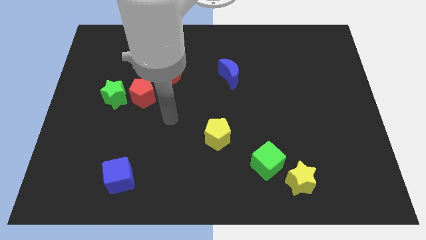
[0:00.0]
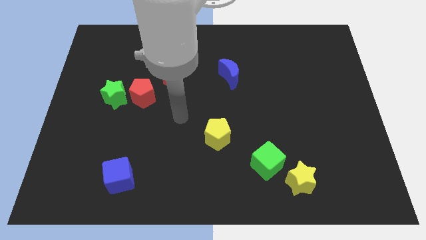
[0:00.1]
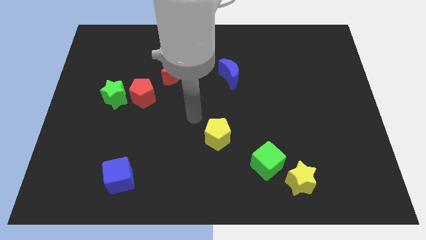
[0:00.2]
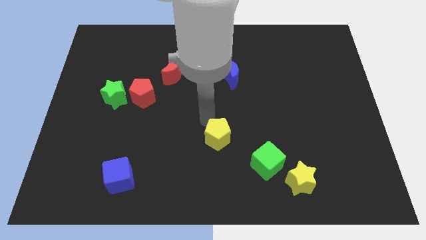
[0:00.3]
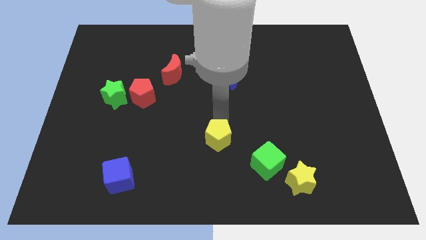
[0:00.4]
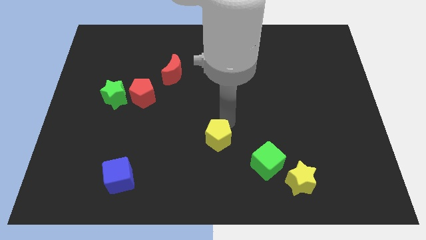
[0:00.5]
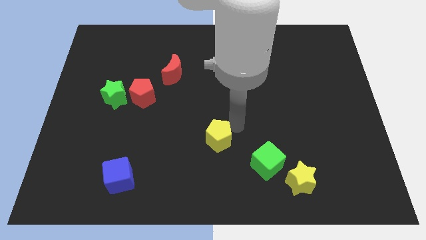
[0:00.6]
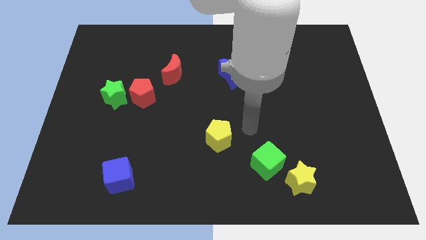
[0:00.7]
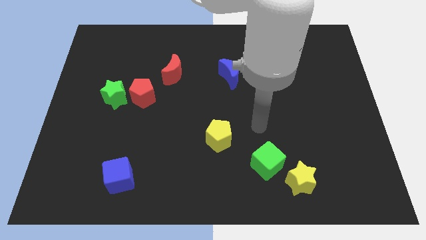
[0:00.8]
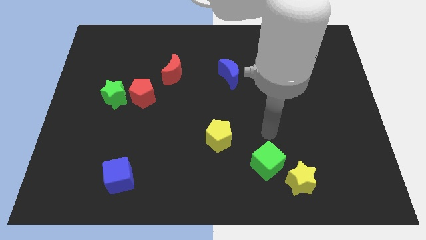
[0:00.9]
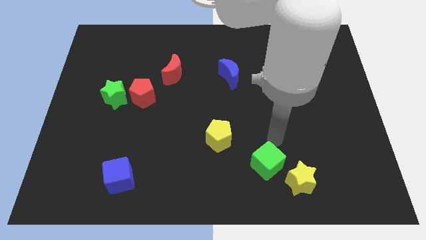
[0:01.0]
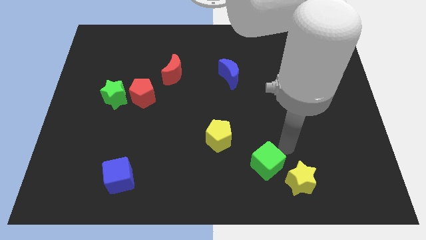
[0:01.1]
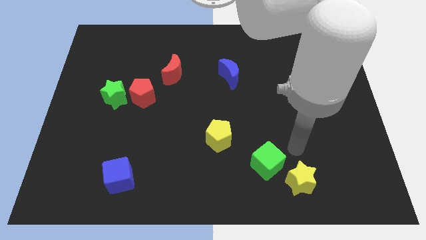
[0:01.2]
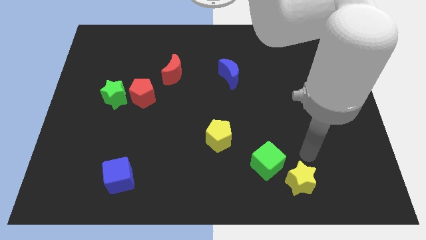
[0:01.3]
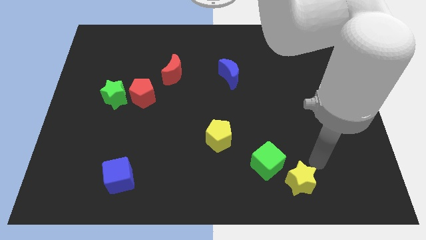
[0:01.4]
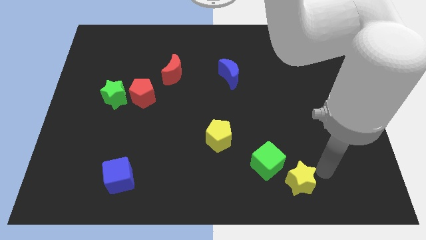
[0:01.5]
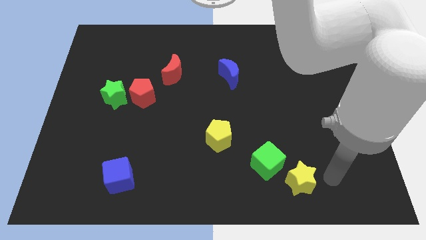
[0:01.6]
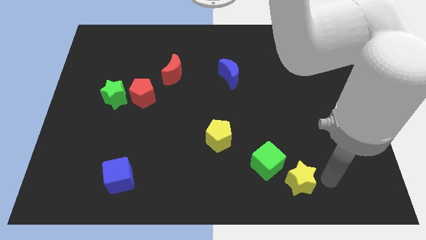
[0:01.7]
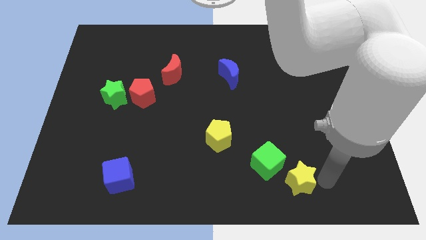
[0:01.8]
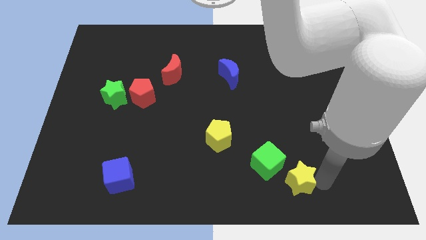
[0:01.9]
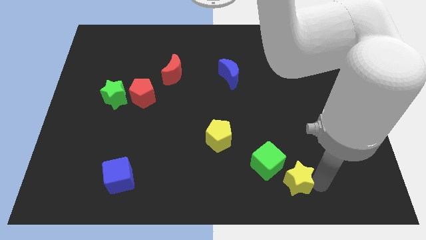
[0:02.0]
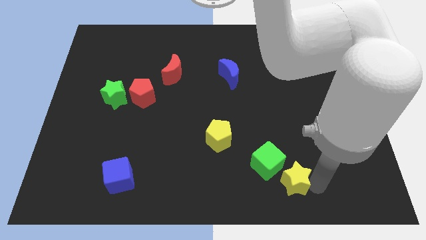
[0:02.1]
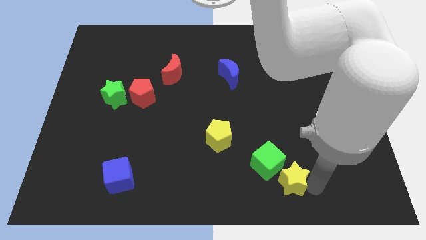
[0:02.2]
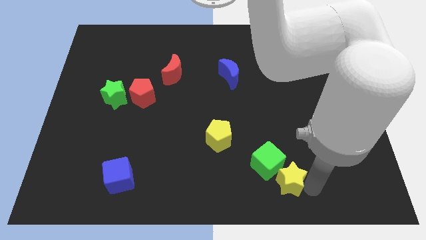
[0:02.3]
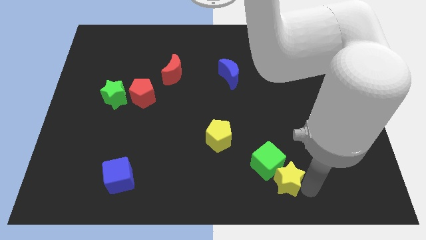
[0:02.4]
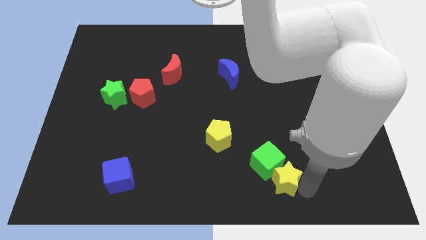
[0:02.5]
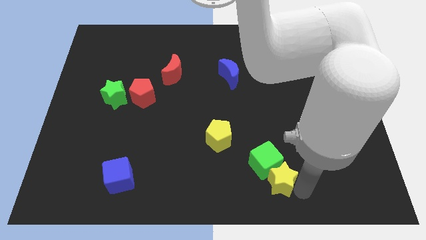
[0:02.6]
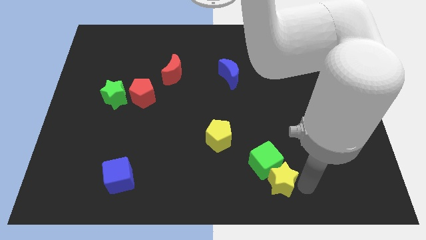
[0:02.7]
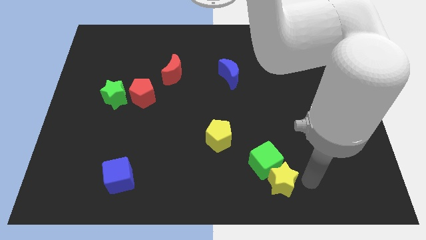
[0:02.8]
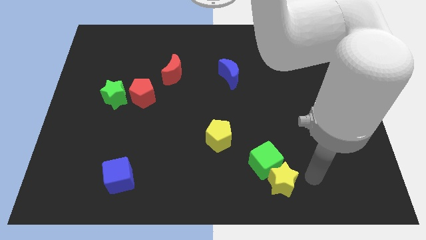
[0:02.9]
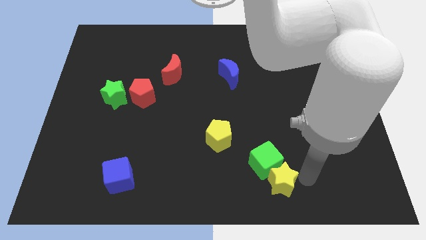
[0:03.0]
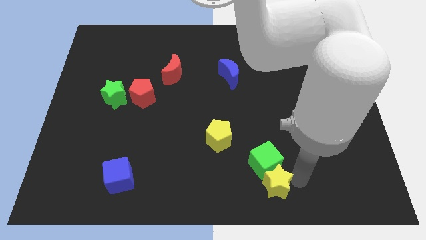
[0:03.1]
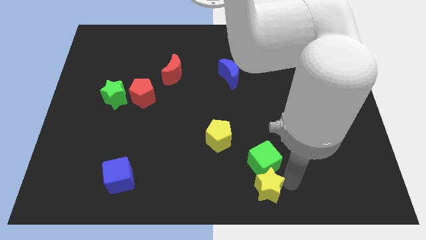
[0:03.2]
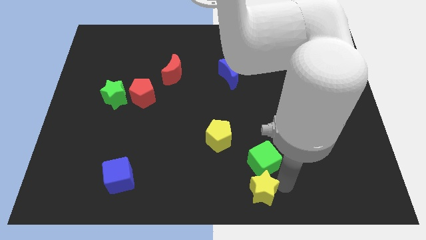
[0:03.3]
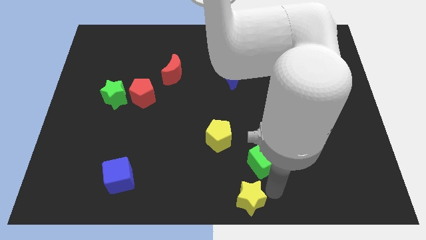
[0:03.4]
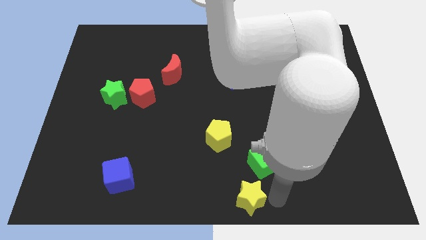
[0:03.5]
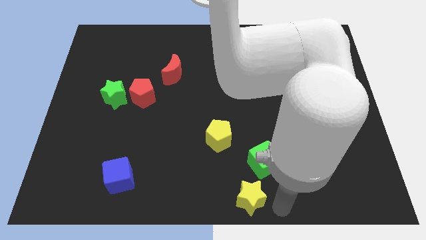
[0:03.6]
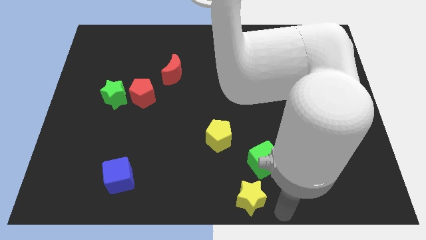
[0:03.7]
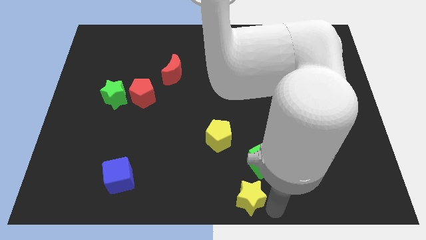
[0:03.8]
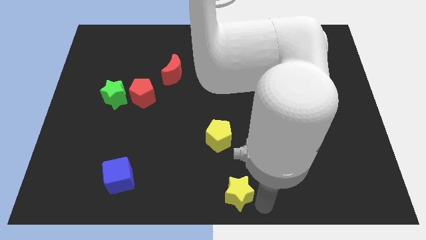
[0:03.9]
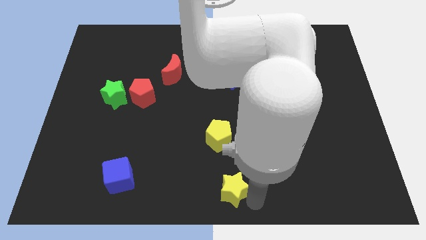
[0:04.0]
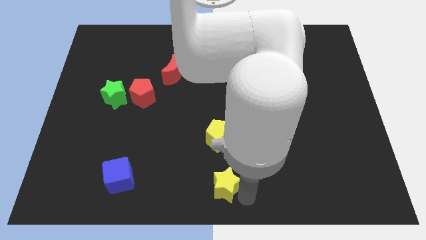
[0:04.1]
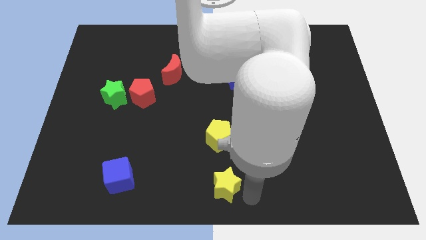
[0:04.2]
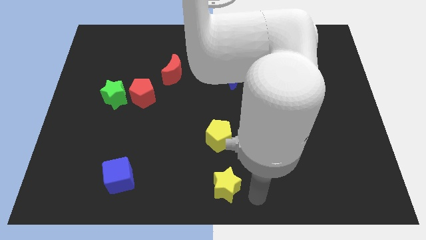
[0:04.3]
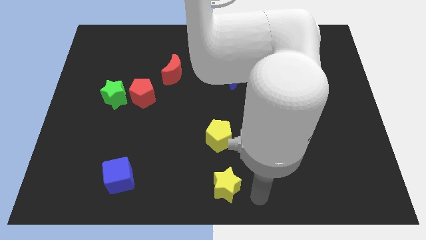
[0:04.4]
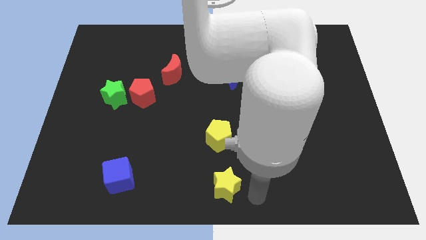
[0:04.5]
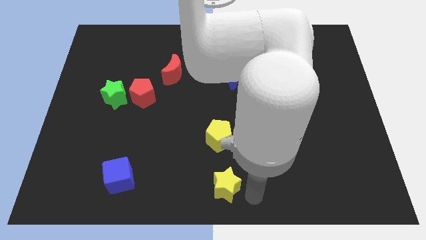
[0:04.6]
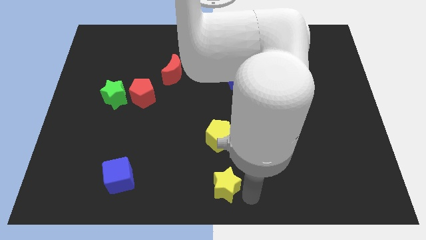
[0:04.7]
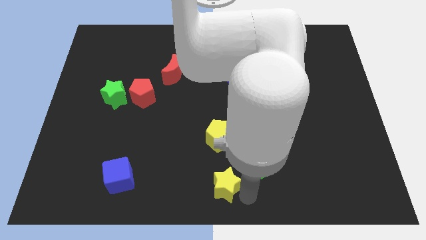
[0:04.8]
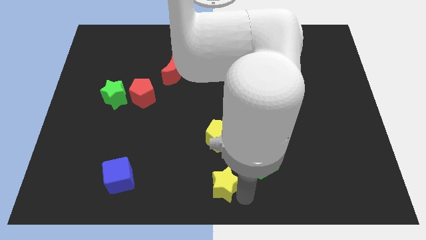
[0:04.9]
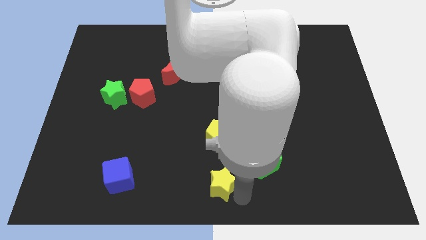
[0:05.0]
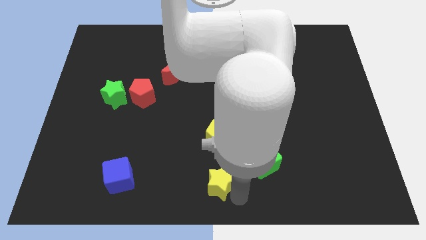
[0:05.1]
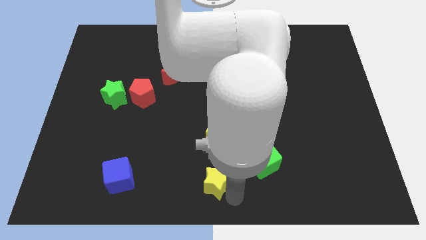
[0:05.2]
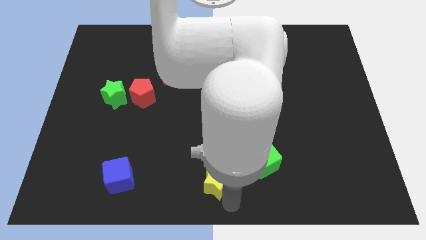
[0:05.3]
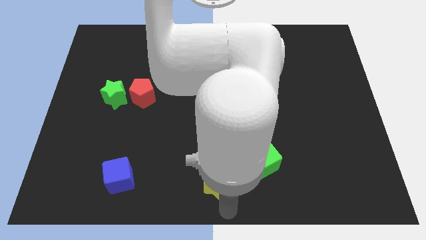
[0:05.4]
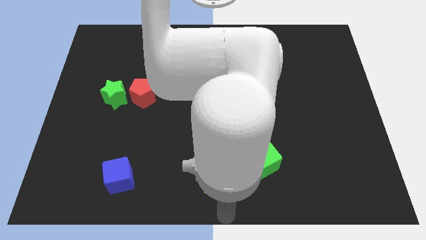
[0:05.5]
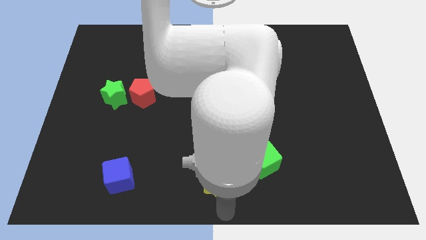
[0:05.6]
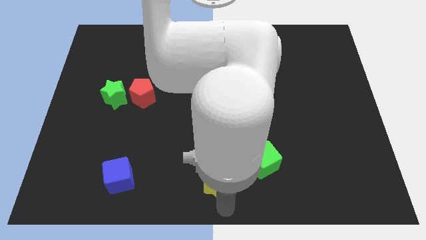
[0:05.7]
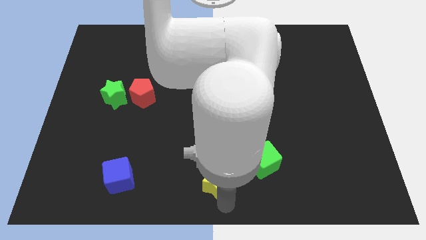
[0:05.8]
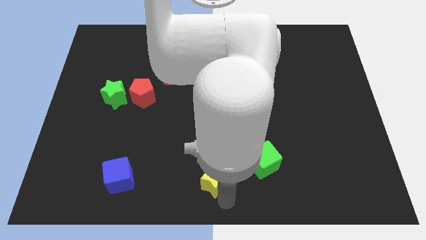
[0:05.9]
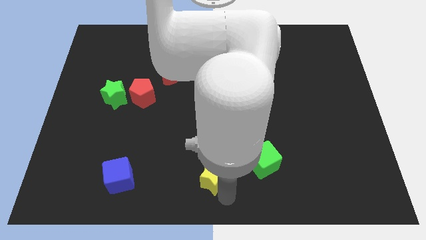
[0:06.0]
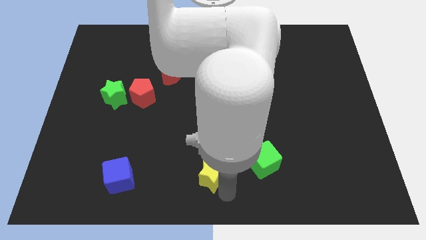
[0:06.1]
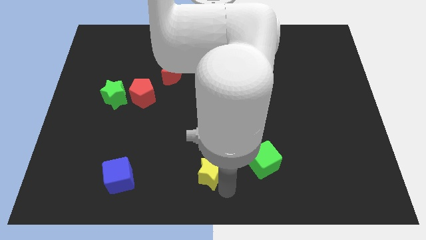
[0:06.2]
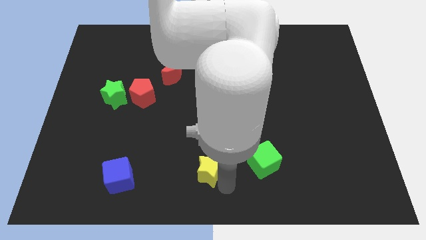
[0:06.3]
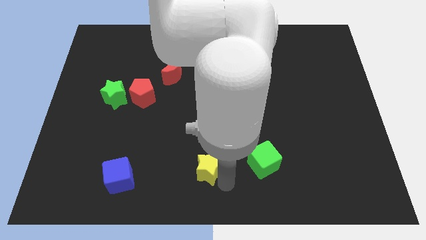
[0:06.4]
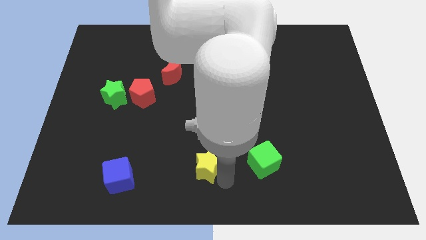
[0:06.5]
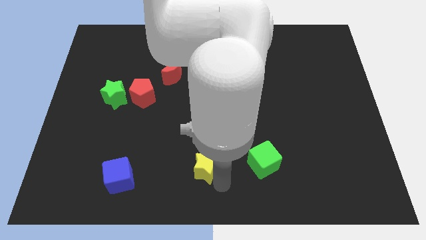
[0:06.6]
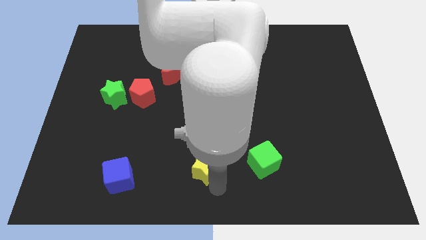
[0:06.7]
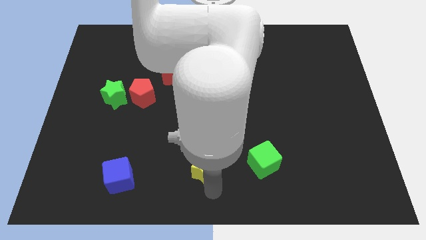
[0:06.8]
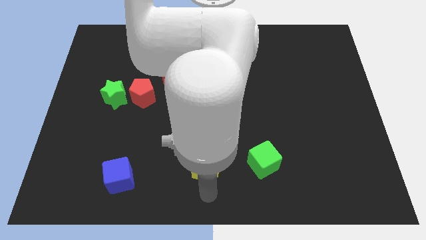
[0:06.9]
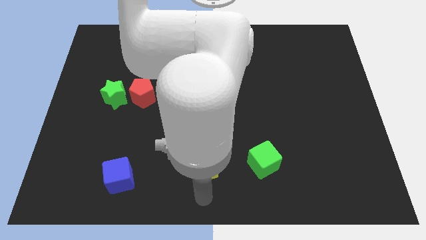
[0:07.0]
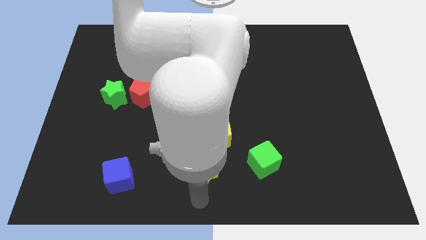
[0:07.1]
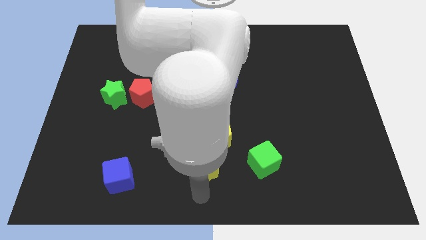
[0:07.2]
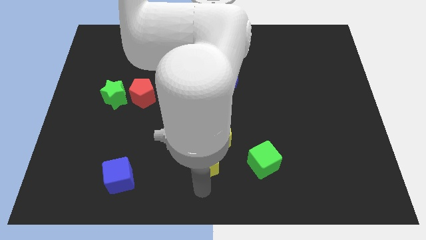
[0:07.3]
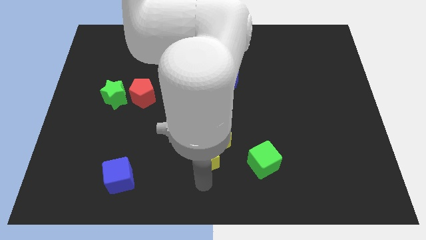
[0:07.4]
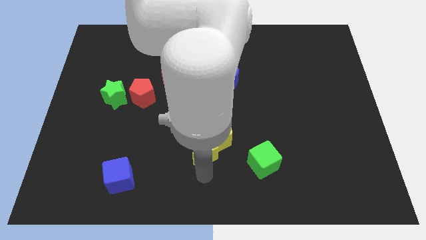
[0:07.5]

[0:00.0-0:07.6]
slide the yellow star to the yellow pentagon
